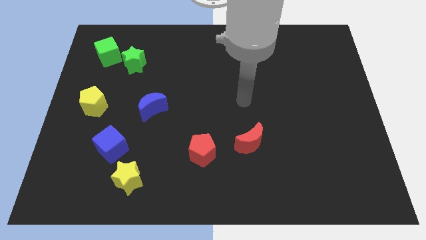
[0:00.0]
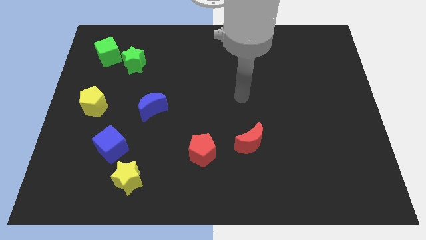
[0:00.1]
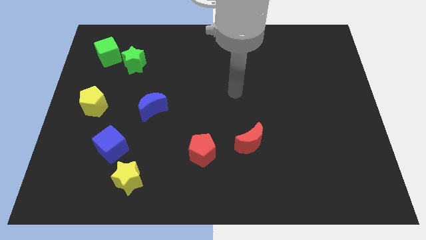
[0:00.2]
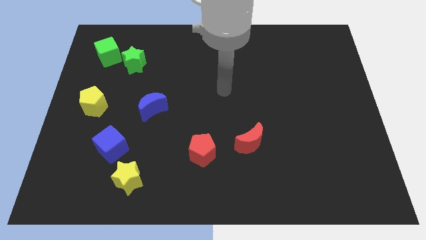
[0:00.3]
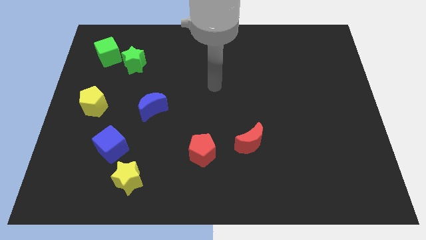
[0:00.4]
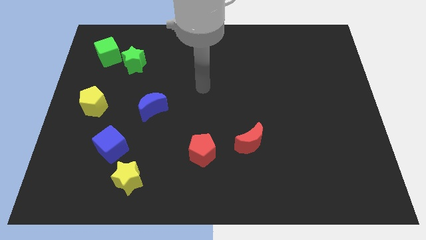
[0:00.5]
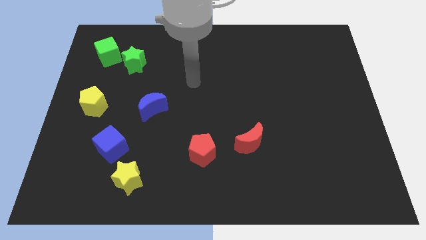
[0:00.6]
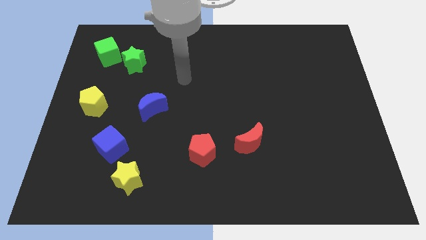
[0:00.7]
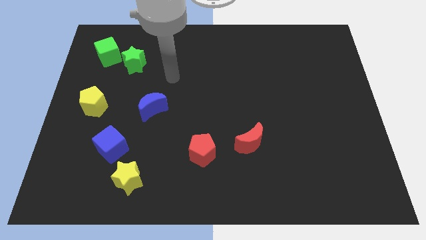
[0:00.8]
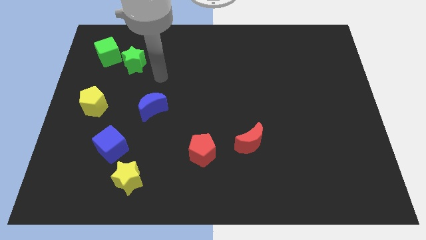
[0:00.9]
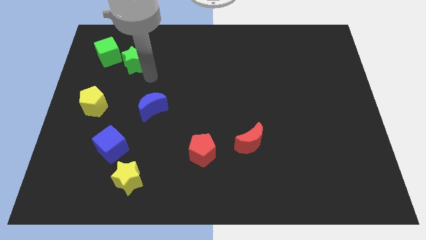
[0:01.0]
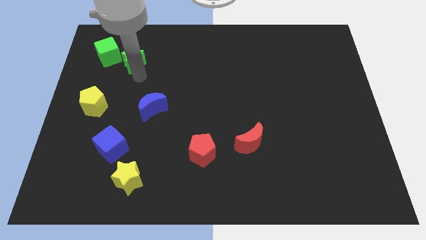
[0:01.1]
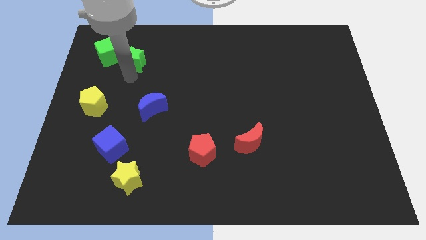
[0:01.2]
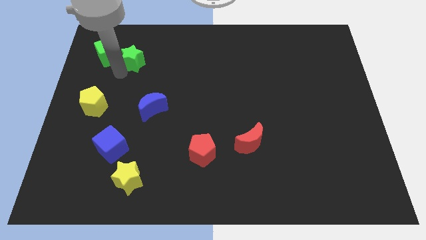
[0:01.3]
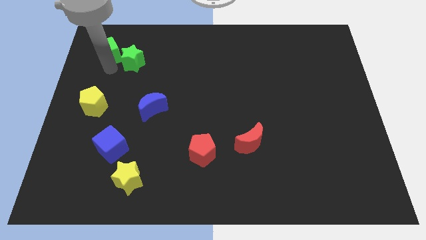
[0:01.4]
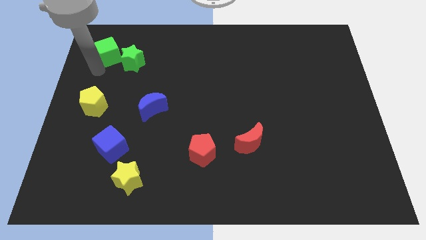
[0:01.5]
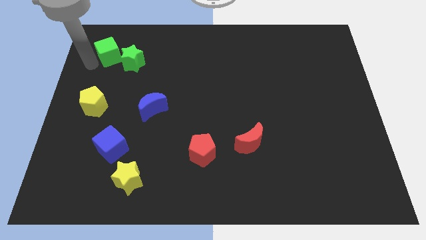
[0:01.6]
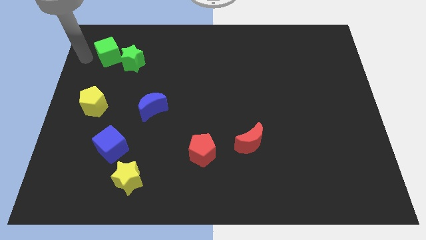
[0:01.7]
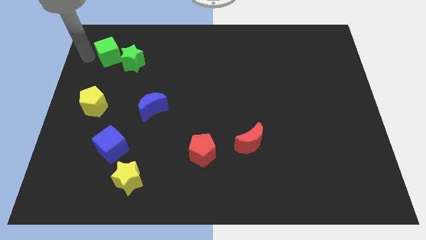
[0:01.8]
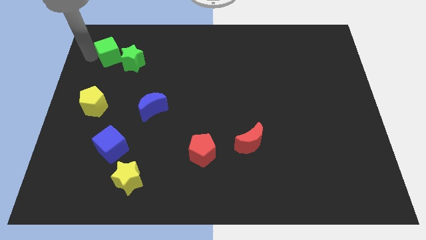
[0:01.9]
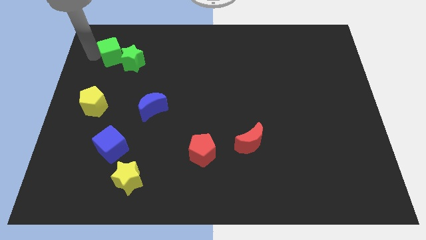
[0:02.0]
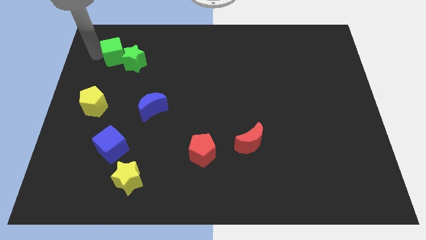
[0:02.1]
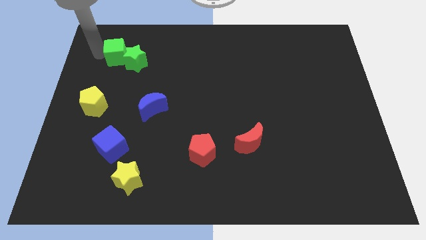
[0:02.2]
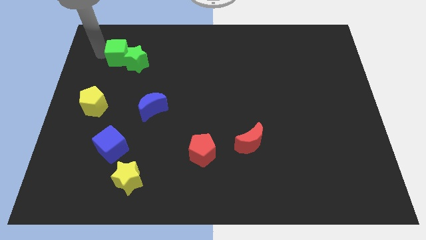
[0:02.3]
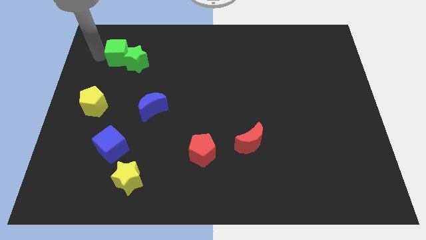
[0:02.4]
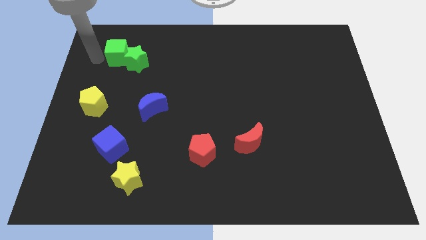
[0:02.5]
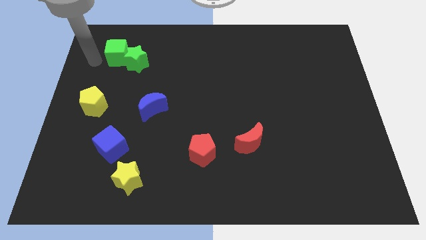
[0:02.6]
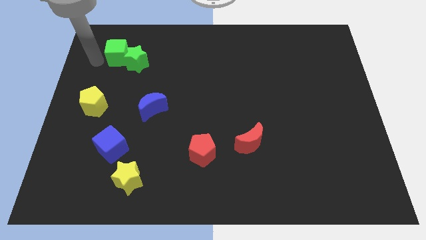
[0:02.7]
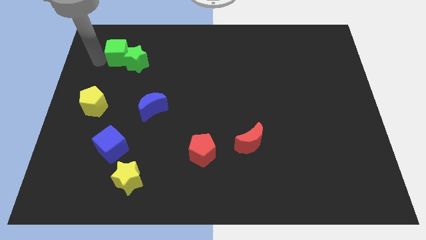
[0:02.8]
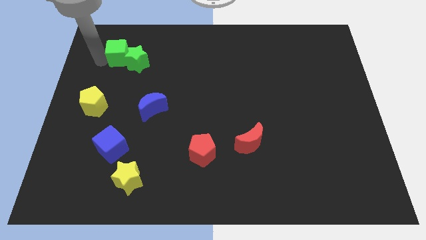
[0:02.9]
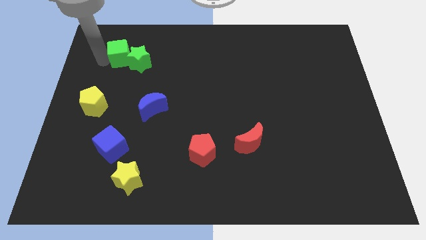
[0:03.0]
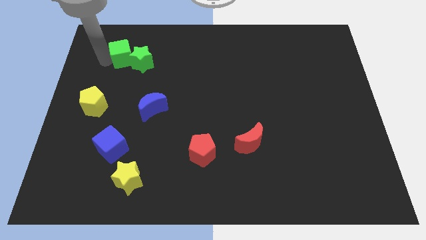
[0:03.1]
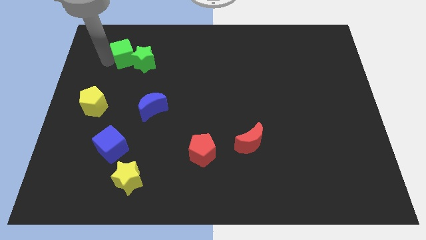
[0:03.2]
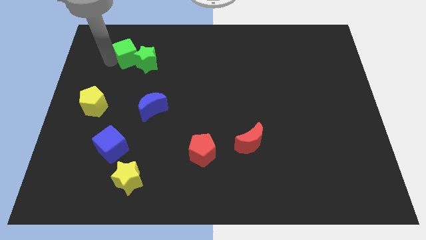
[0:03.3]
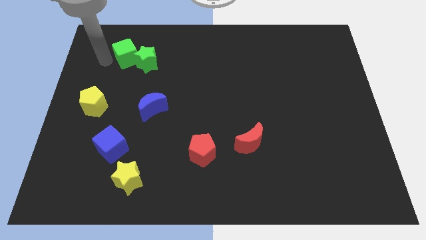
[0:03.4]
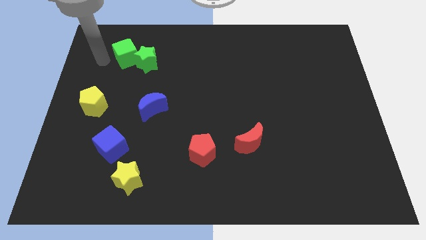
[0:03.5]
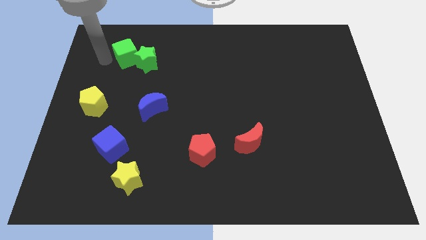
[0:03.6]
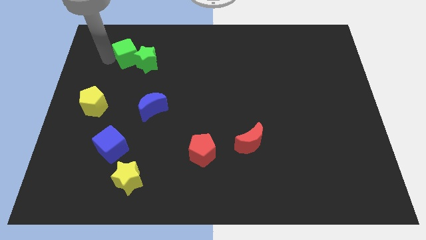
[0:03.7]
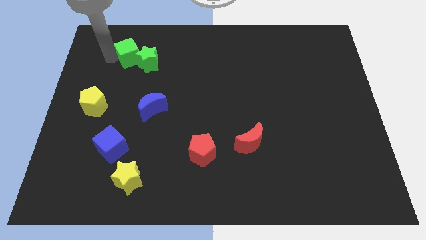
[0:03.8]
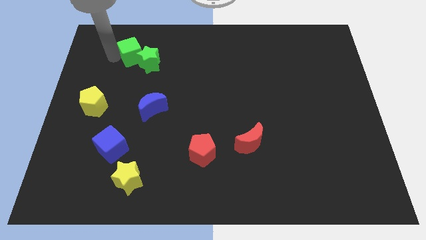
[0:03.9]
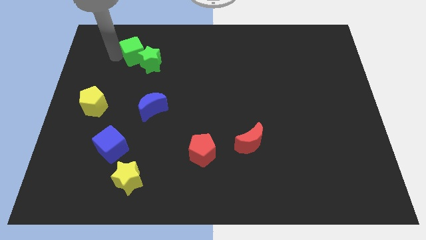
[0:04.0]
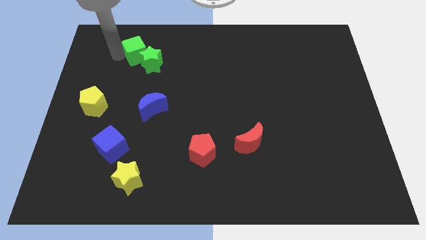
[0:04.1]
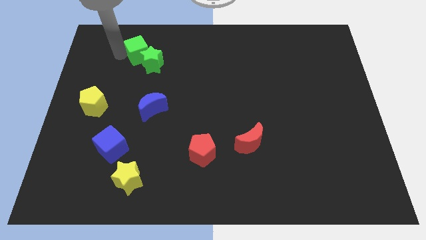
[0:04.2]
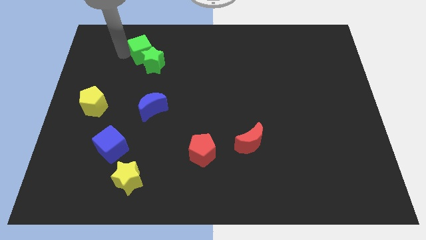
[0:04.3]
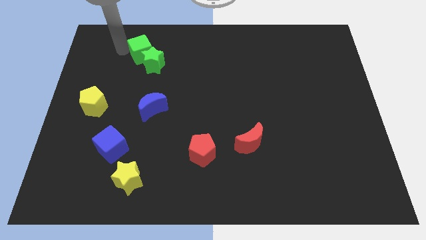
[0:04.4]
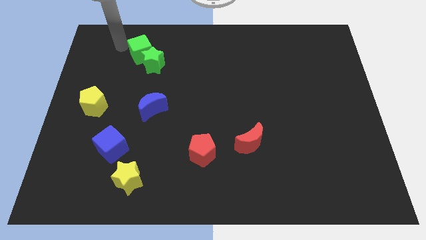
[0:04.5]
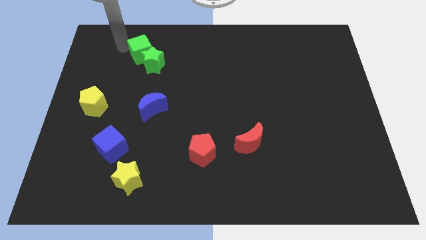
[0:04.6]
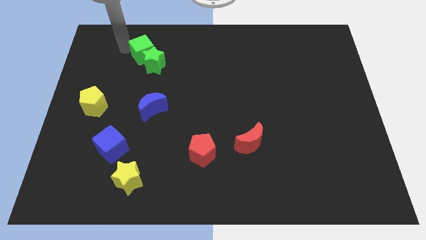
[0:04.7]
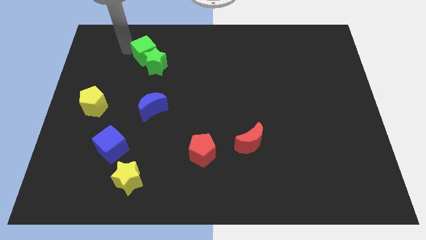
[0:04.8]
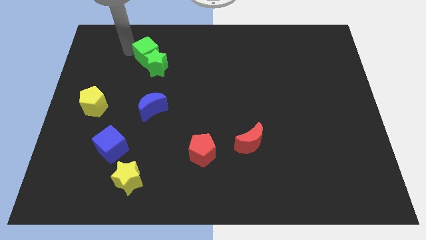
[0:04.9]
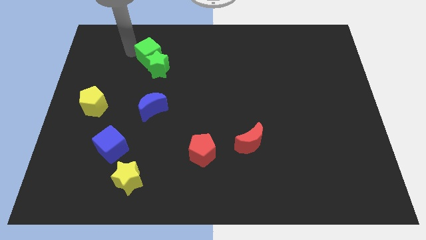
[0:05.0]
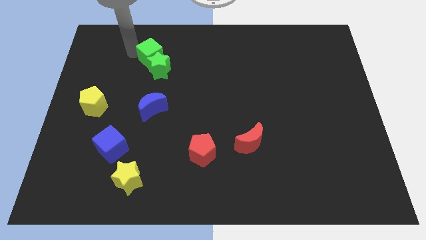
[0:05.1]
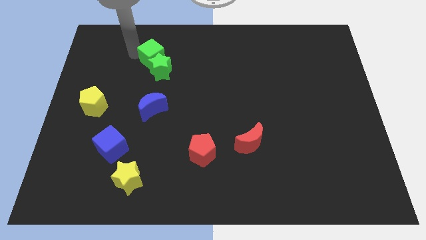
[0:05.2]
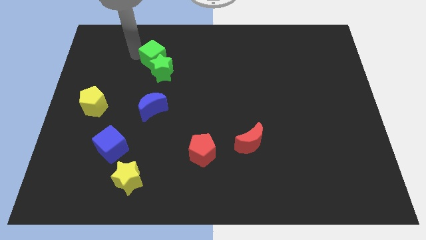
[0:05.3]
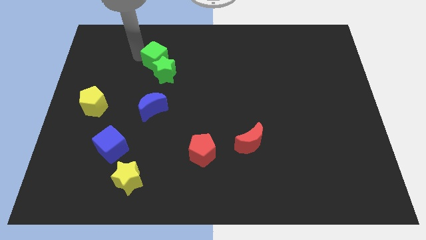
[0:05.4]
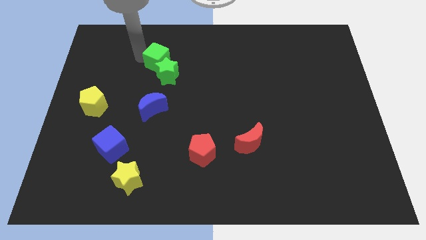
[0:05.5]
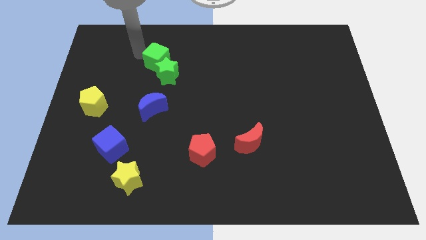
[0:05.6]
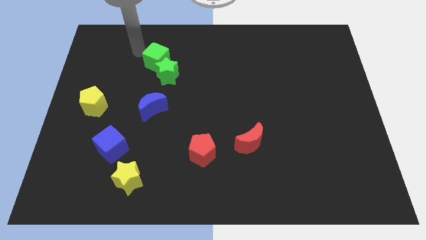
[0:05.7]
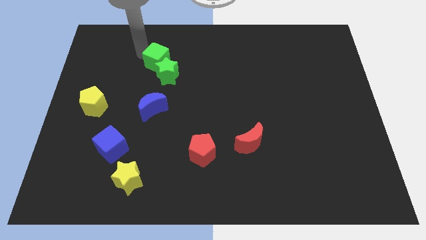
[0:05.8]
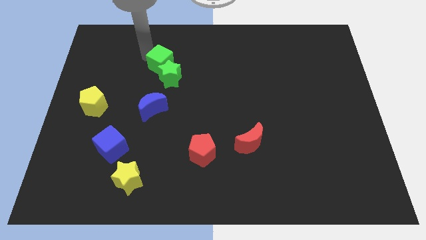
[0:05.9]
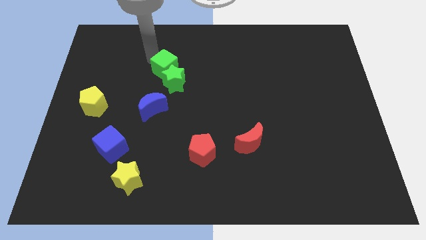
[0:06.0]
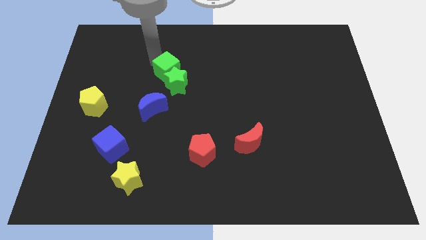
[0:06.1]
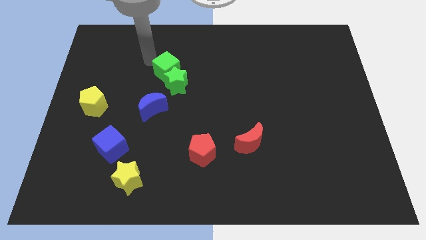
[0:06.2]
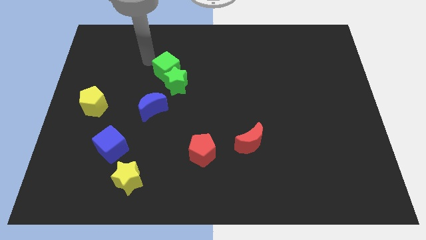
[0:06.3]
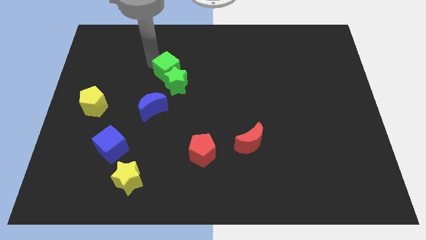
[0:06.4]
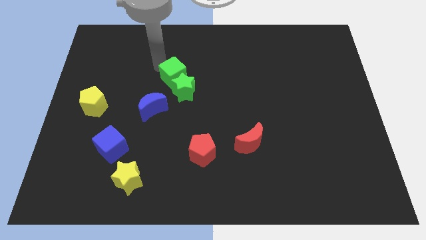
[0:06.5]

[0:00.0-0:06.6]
slide the green cube to the center of the board
